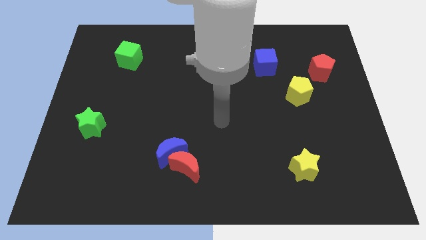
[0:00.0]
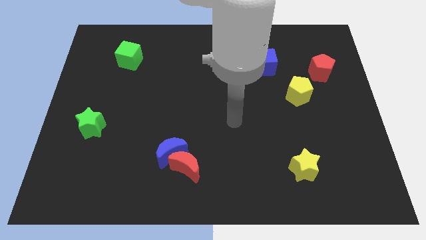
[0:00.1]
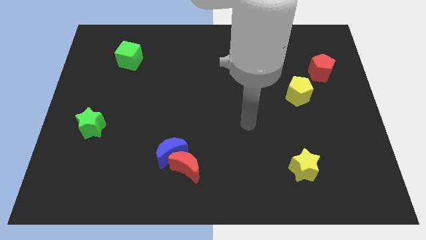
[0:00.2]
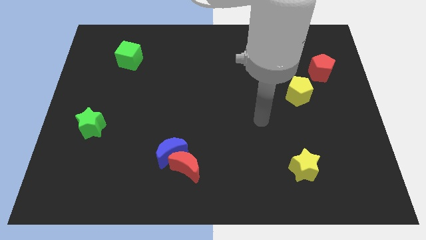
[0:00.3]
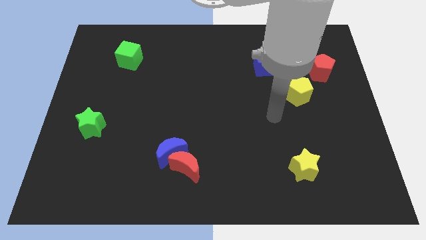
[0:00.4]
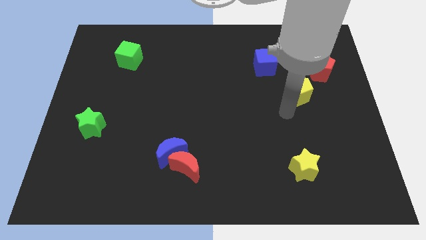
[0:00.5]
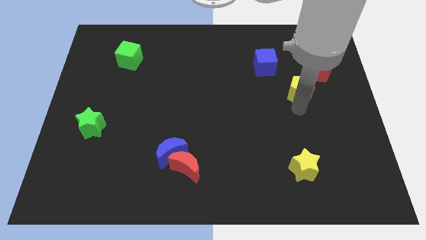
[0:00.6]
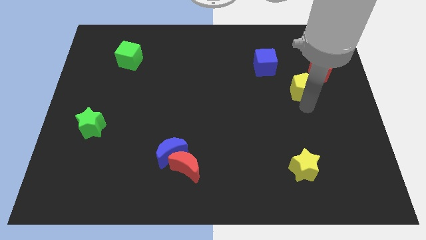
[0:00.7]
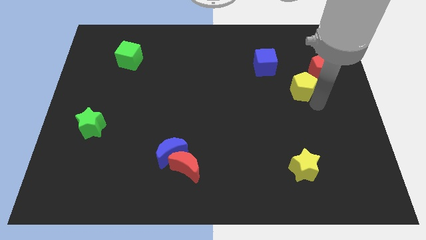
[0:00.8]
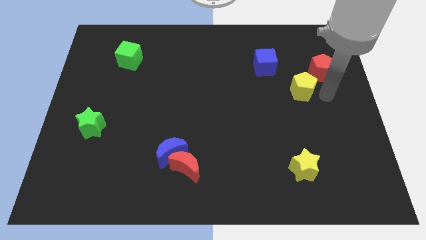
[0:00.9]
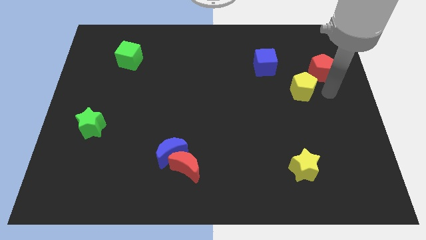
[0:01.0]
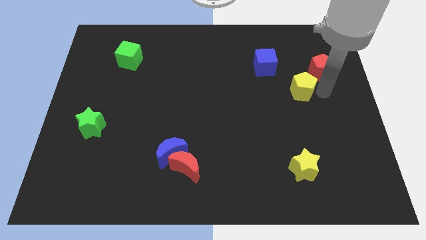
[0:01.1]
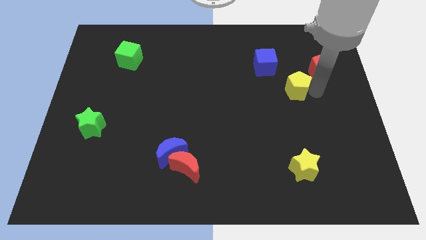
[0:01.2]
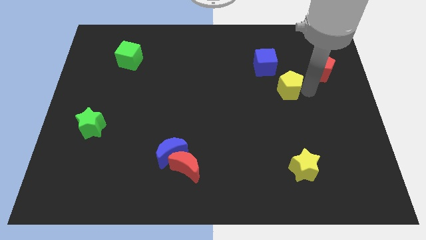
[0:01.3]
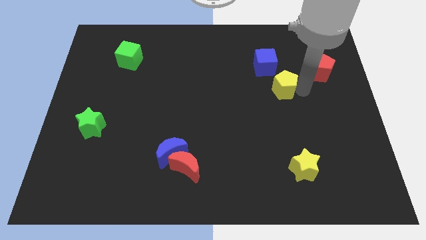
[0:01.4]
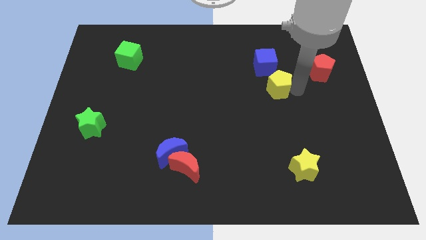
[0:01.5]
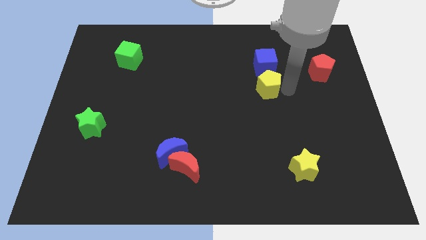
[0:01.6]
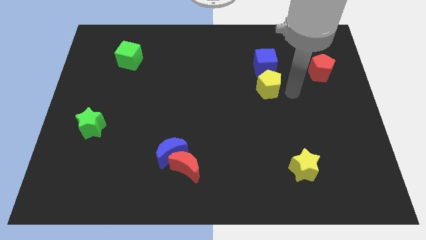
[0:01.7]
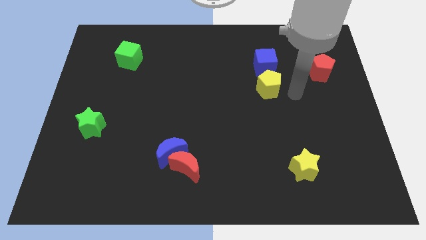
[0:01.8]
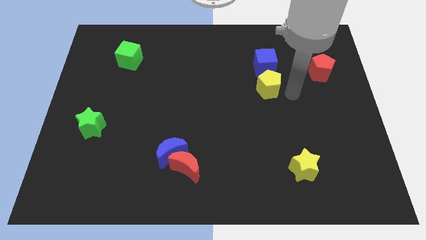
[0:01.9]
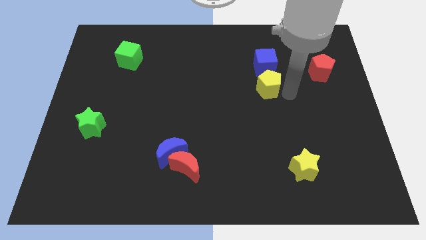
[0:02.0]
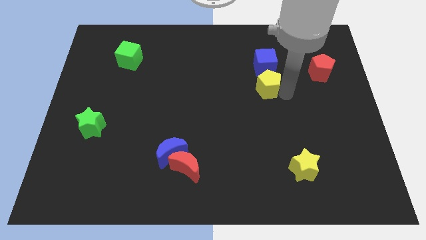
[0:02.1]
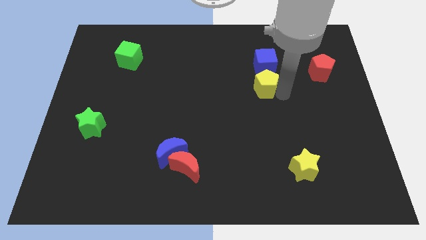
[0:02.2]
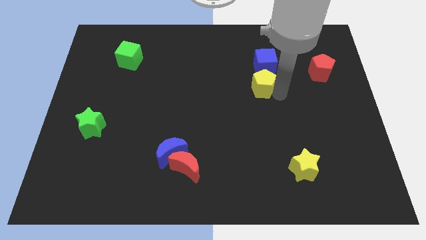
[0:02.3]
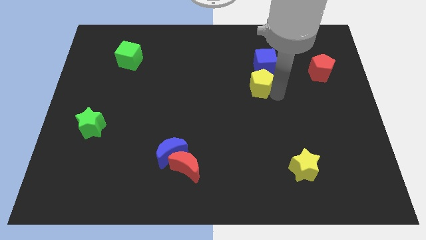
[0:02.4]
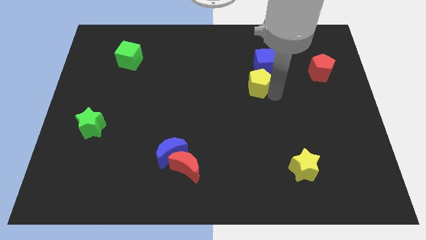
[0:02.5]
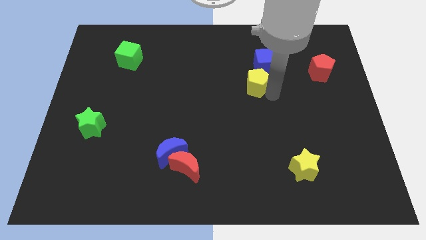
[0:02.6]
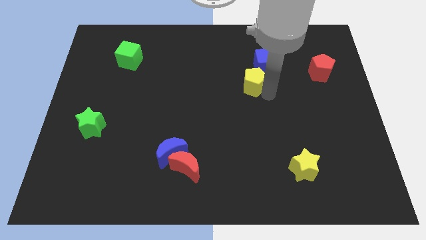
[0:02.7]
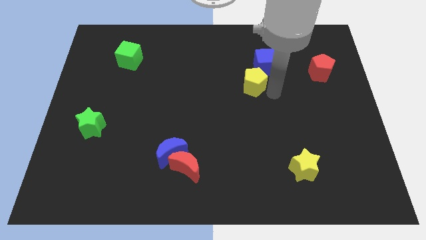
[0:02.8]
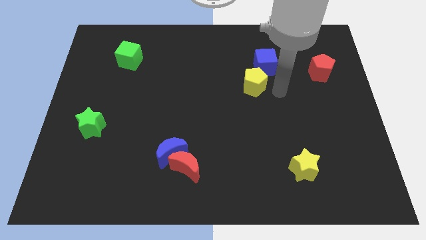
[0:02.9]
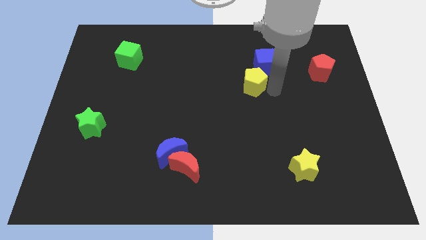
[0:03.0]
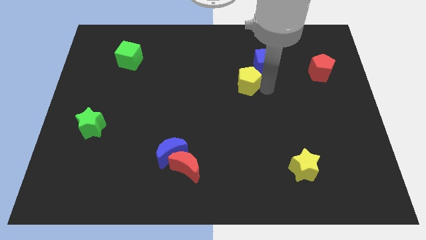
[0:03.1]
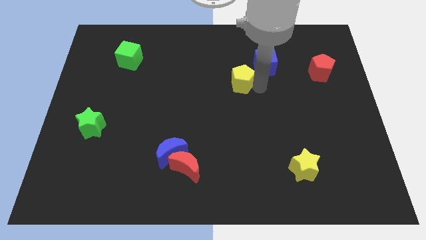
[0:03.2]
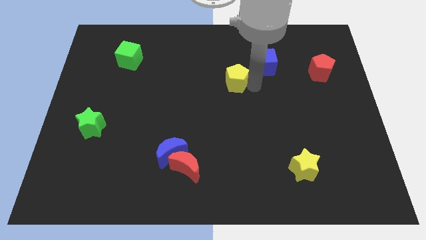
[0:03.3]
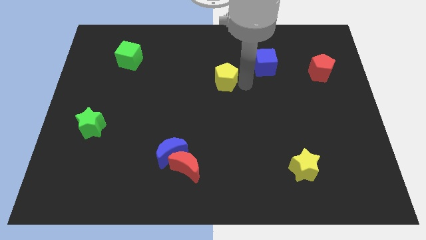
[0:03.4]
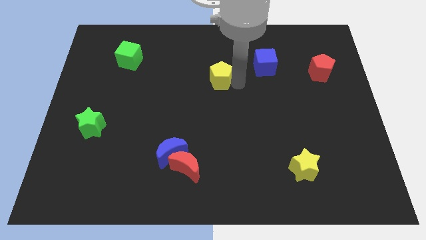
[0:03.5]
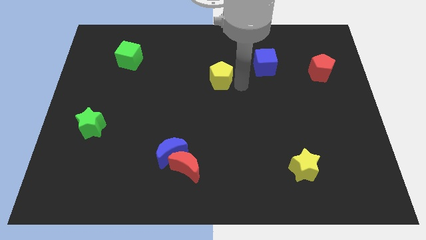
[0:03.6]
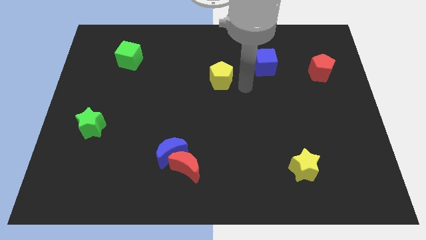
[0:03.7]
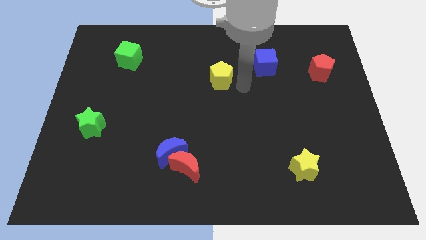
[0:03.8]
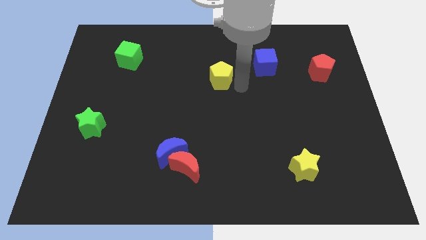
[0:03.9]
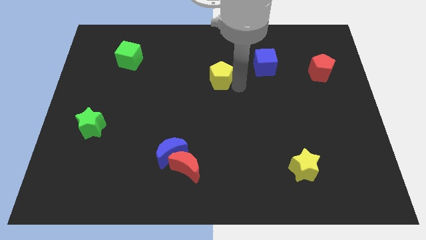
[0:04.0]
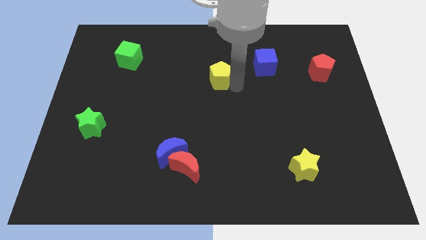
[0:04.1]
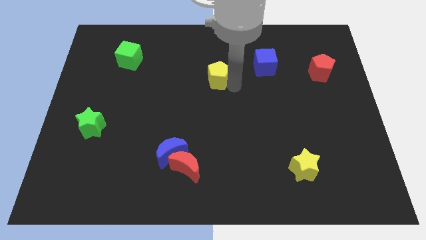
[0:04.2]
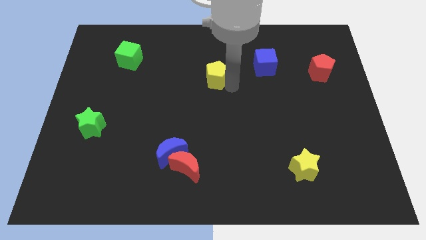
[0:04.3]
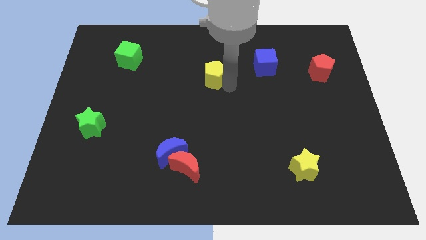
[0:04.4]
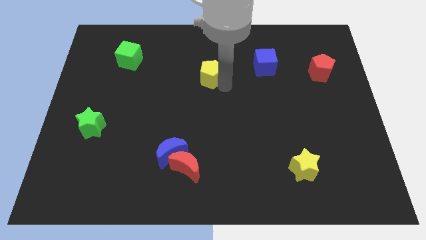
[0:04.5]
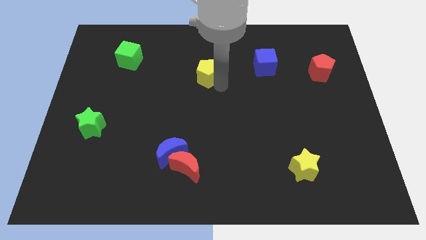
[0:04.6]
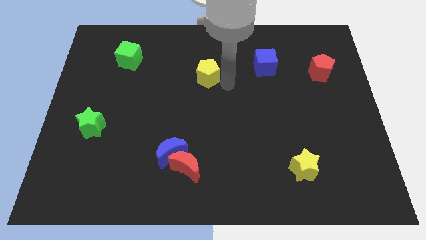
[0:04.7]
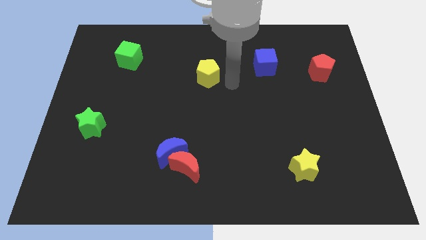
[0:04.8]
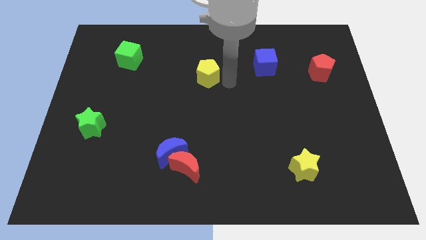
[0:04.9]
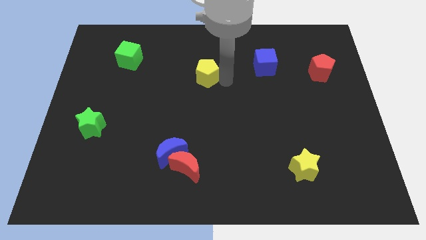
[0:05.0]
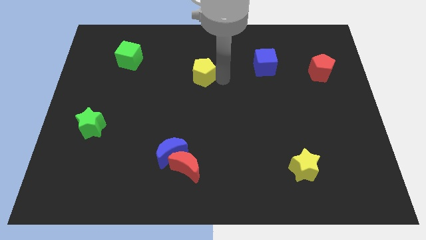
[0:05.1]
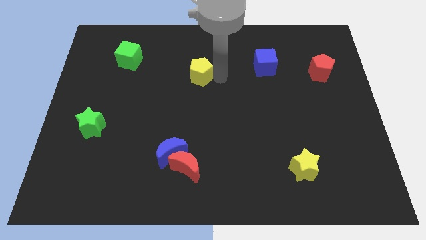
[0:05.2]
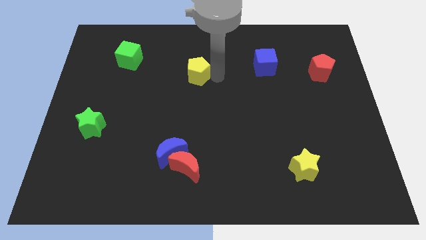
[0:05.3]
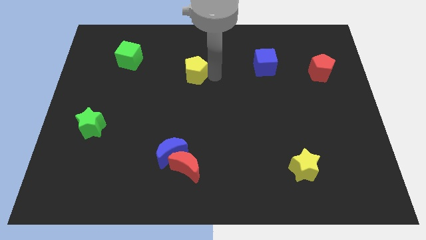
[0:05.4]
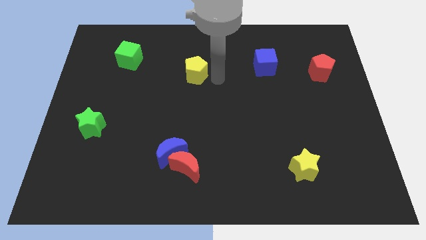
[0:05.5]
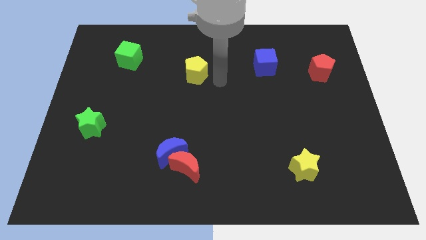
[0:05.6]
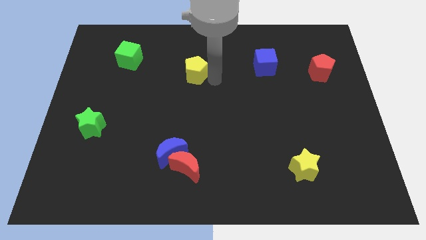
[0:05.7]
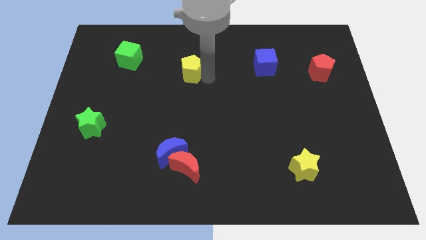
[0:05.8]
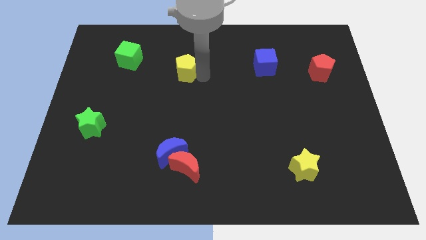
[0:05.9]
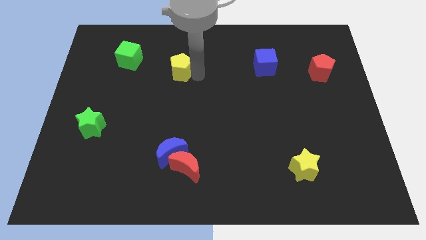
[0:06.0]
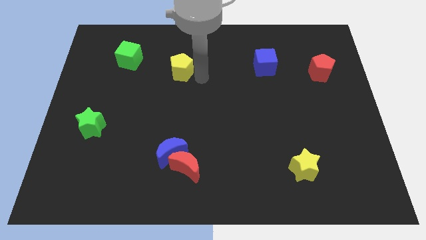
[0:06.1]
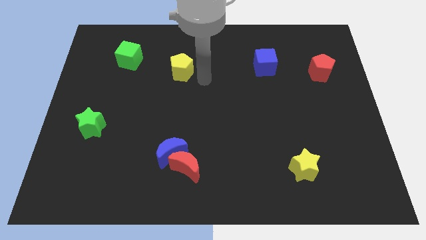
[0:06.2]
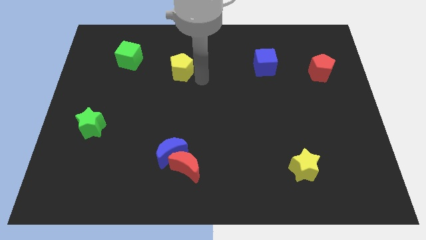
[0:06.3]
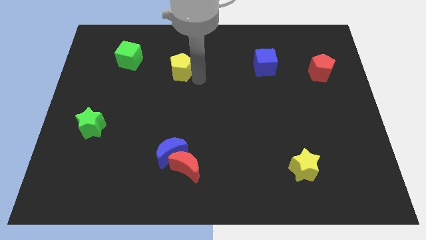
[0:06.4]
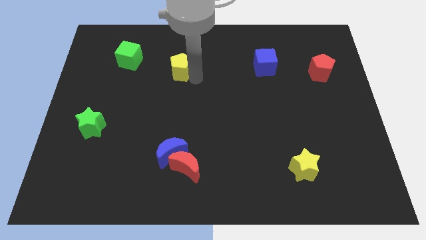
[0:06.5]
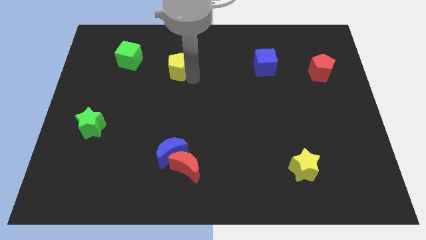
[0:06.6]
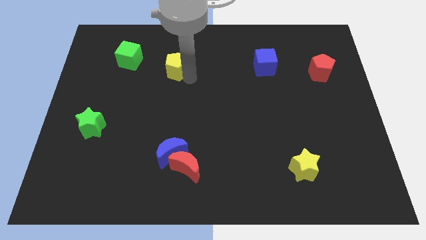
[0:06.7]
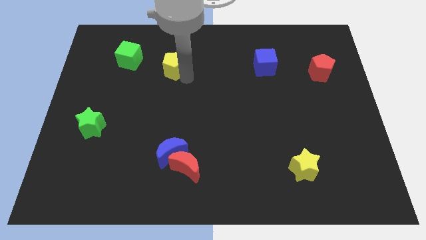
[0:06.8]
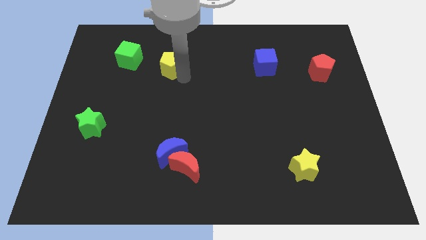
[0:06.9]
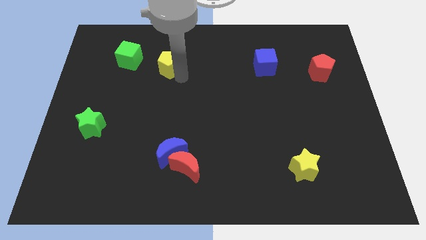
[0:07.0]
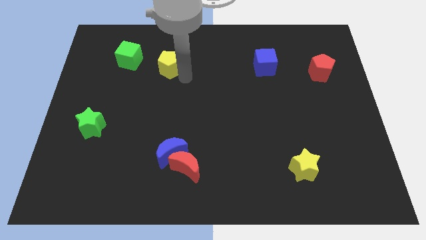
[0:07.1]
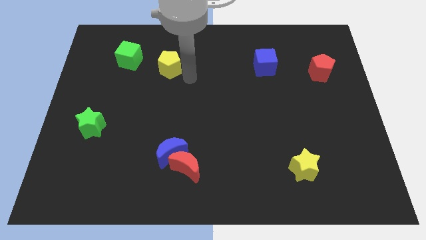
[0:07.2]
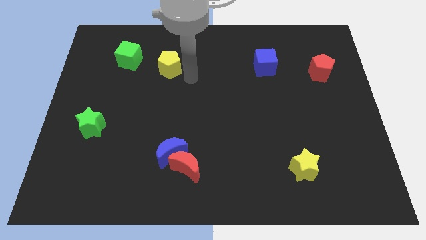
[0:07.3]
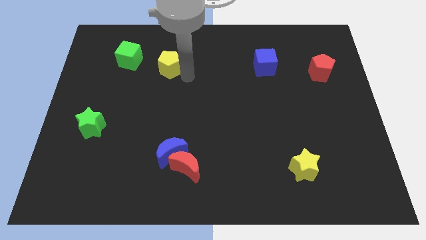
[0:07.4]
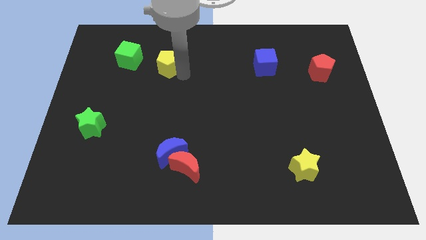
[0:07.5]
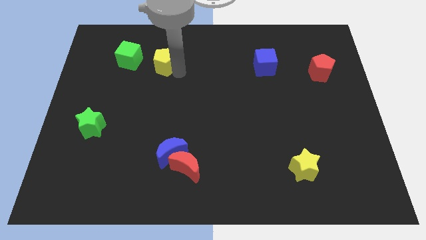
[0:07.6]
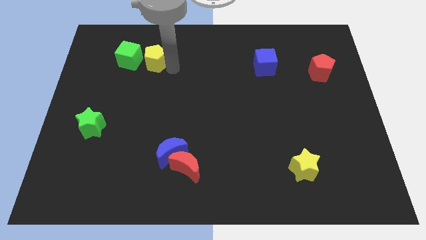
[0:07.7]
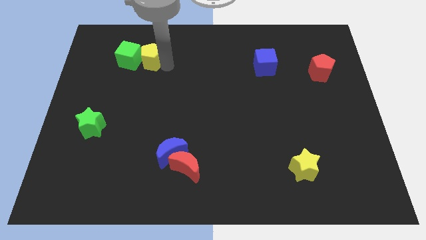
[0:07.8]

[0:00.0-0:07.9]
put the yellow pentagon to the green cube
